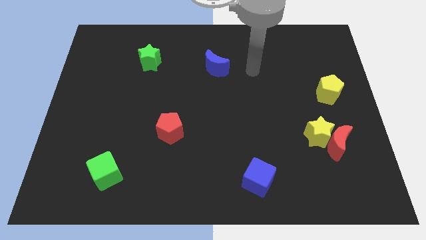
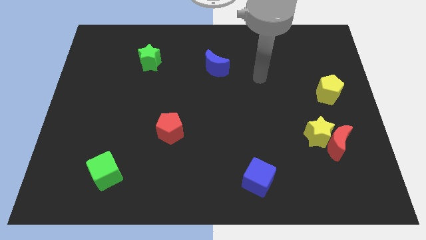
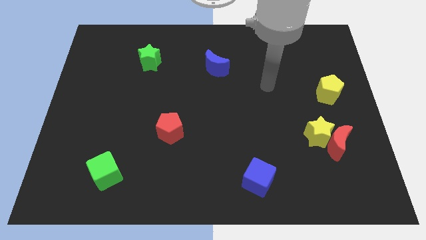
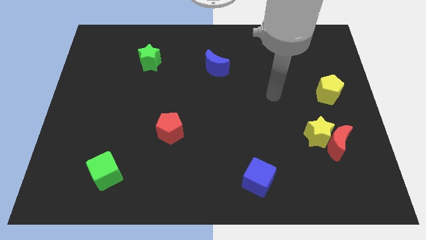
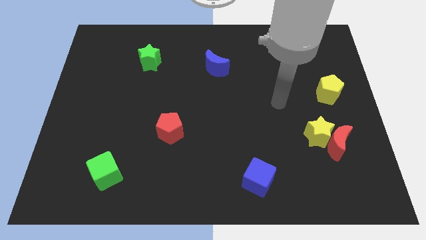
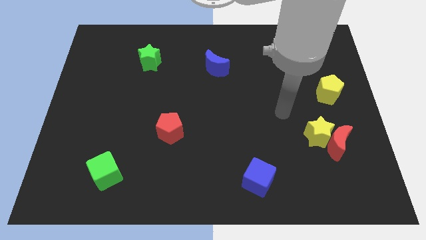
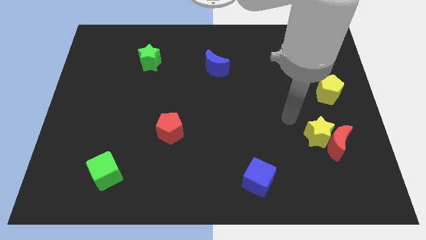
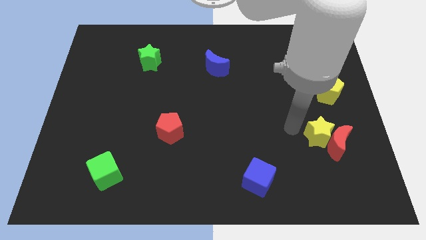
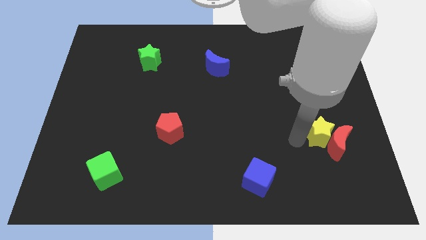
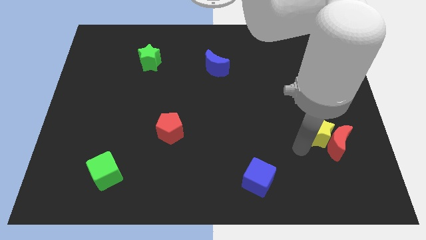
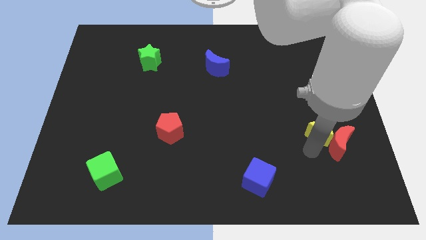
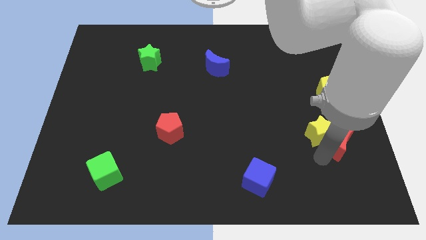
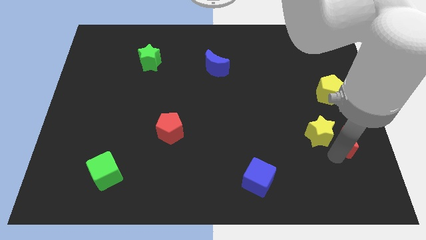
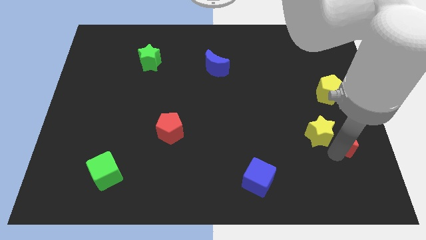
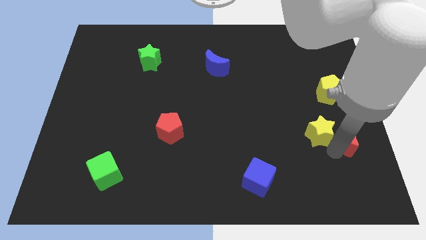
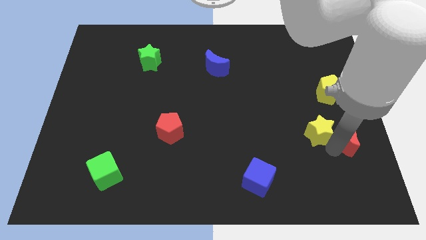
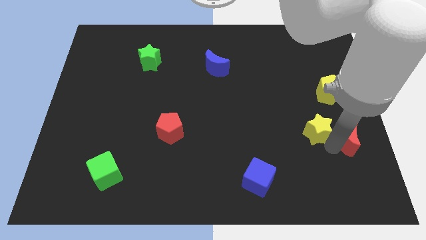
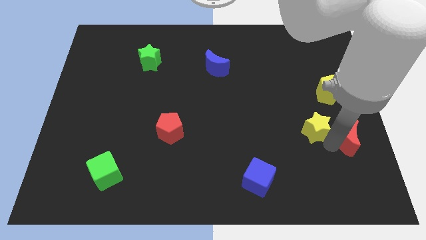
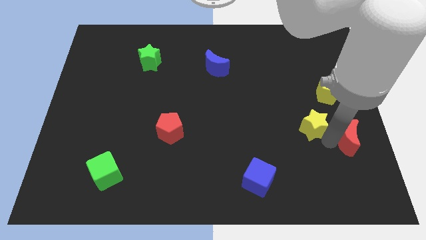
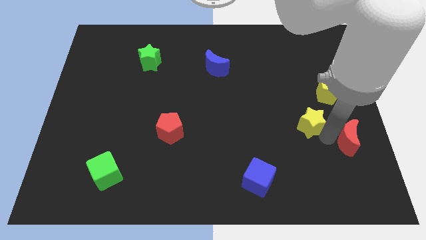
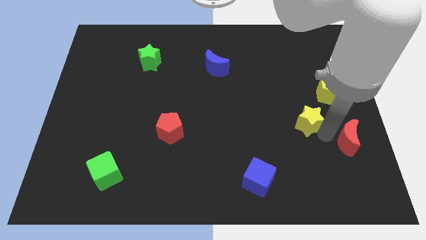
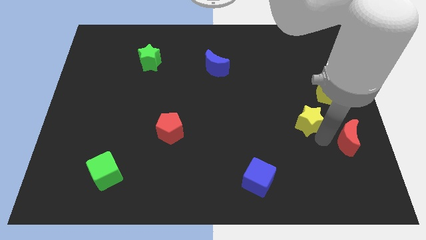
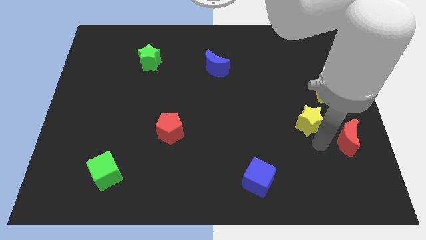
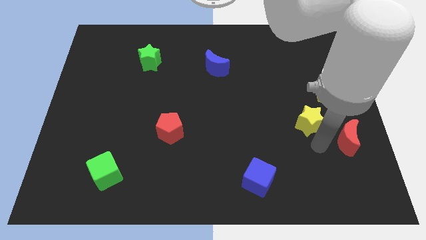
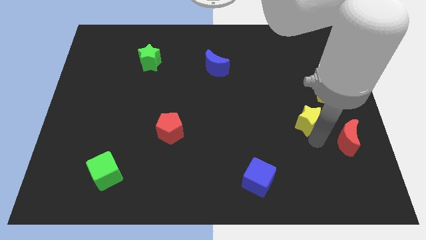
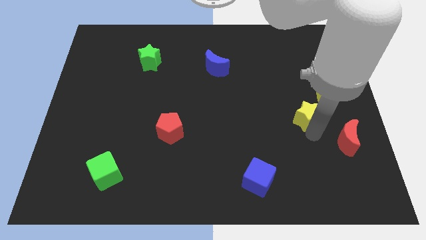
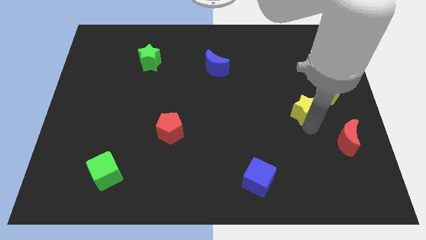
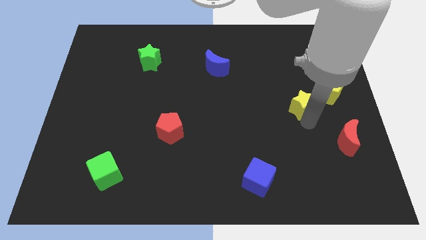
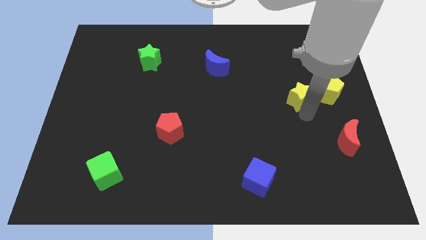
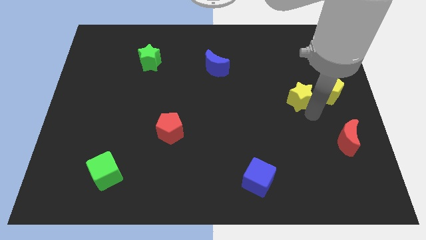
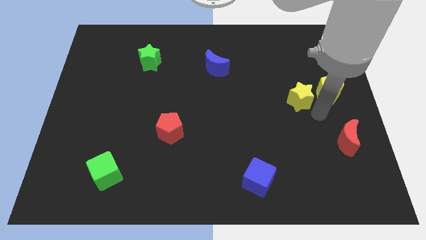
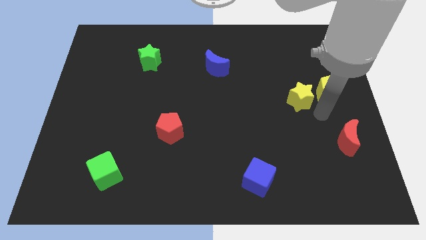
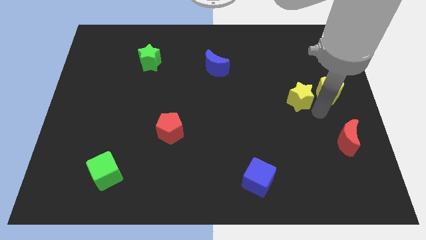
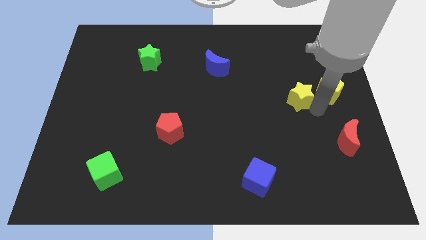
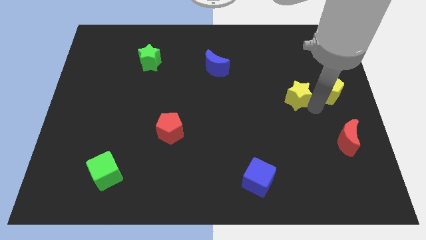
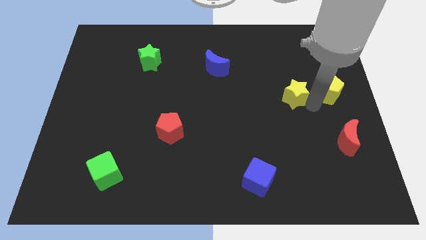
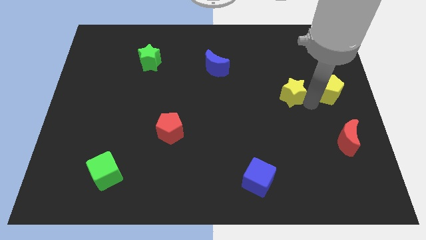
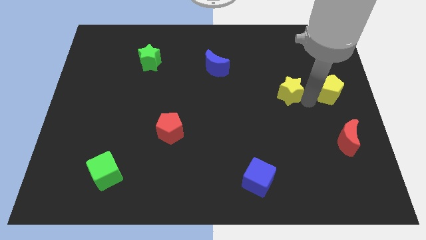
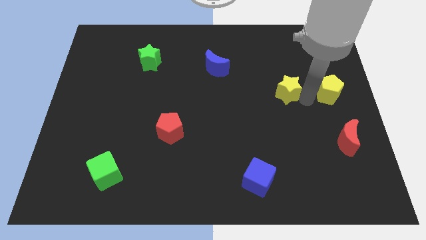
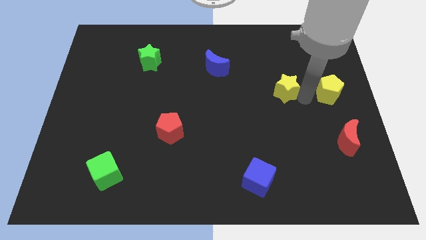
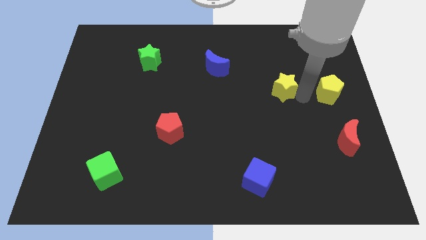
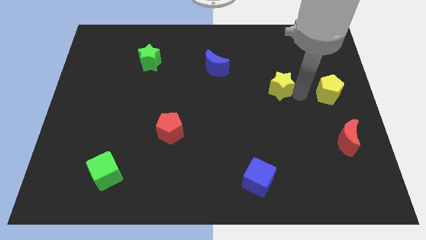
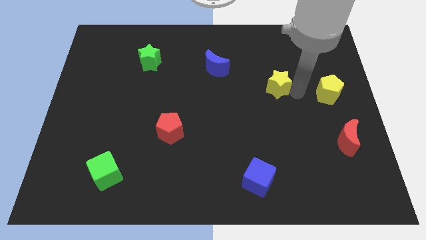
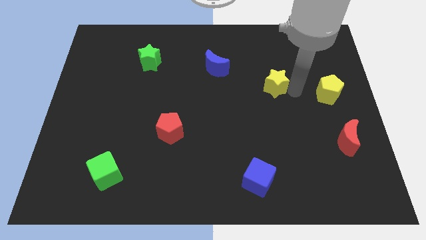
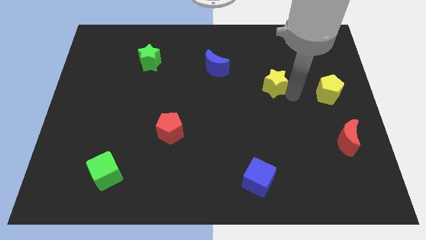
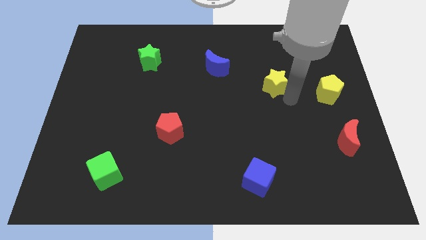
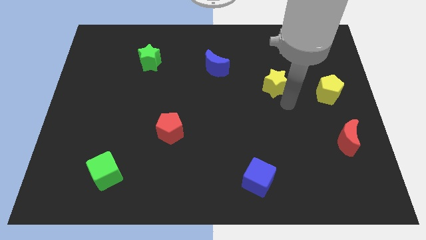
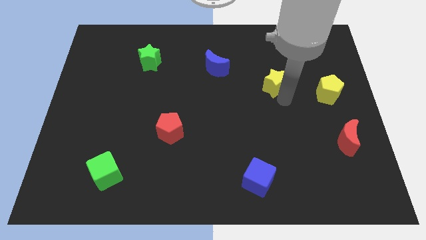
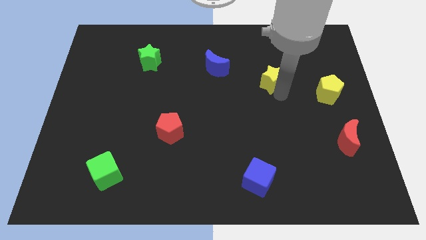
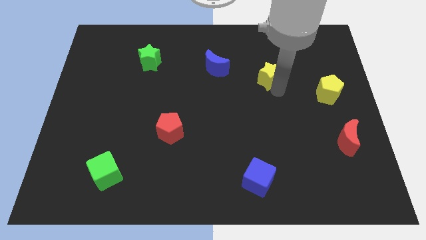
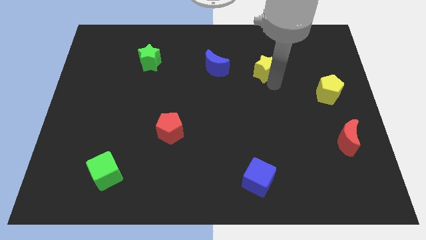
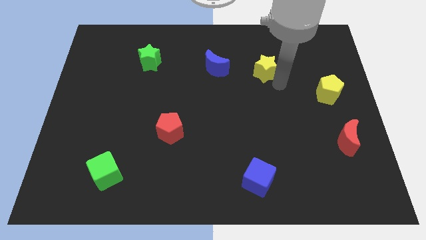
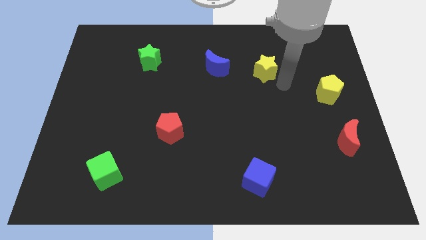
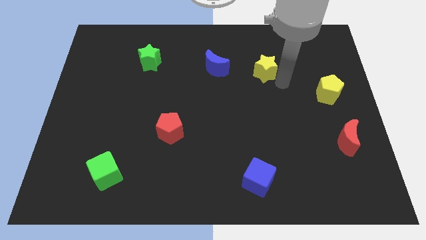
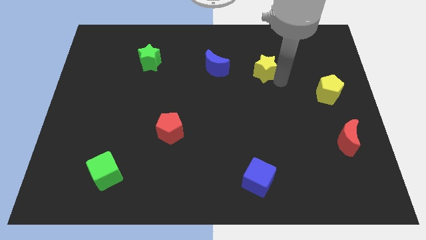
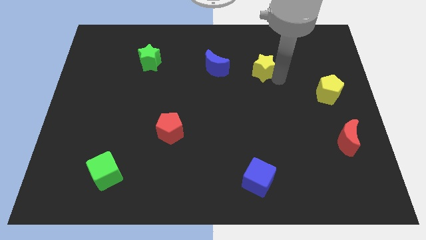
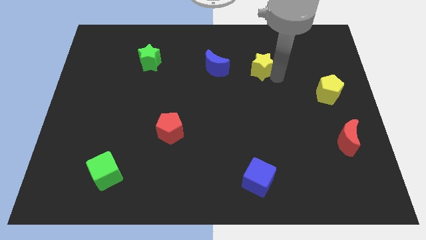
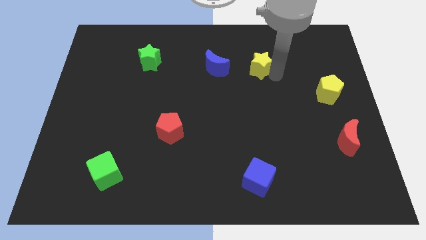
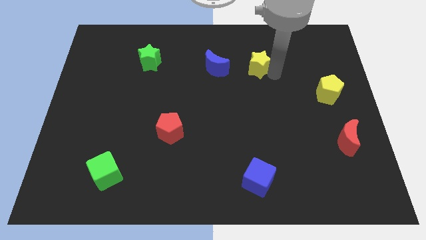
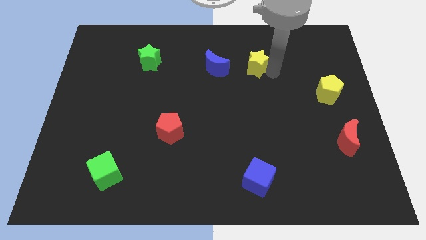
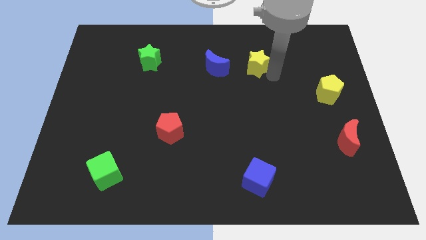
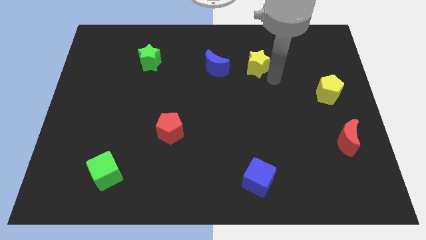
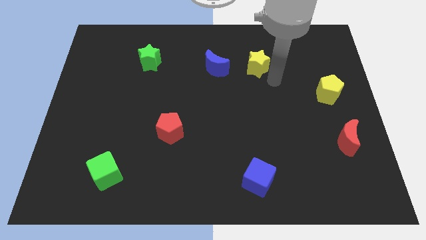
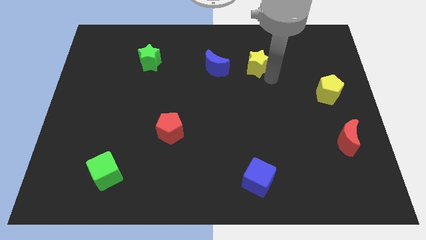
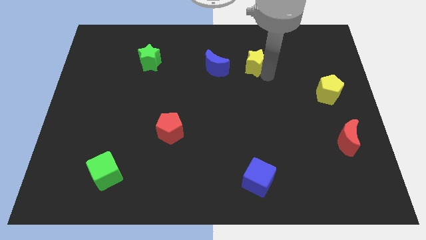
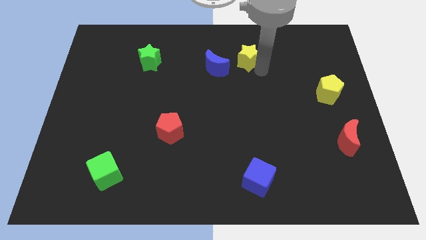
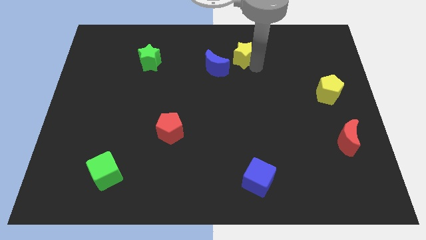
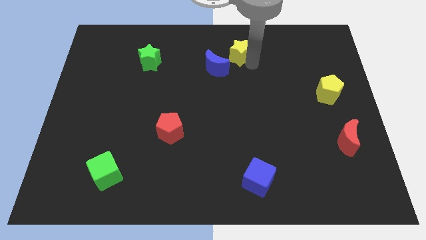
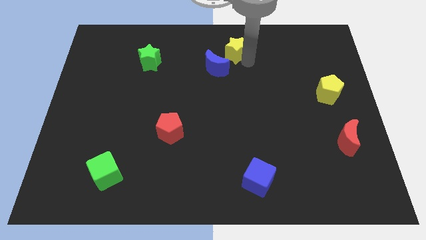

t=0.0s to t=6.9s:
push the yellow star to the towards your base

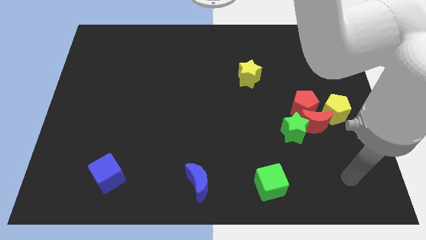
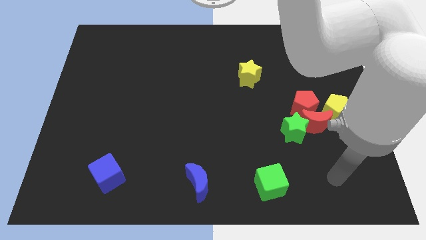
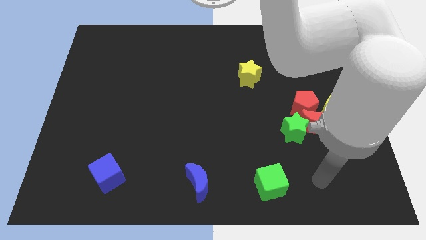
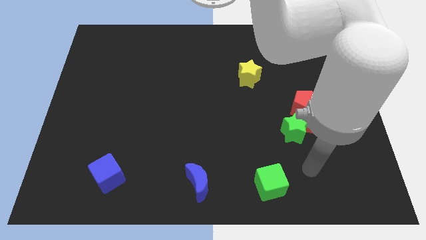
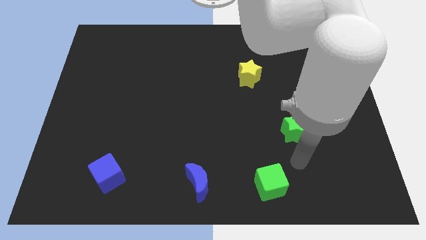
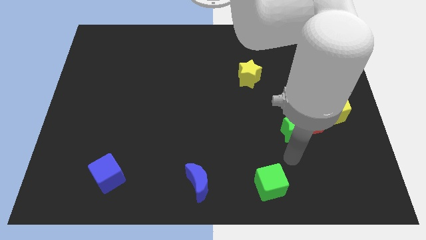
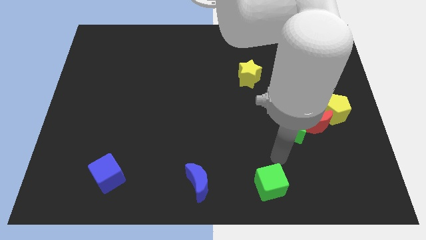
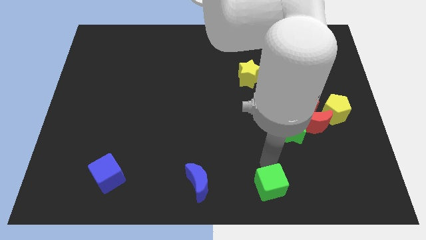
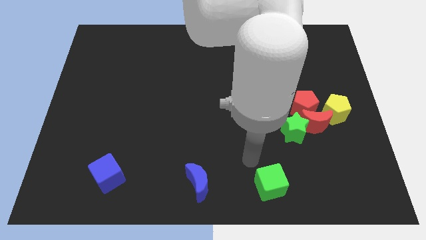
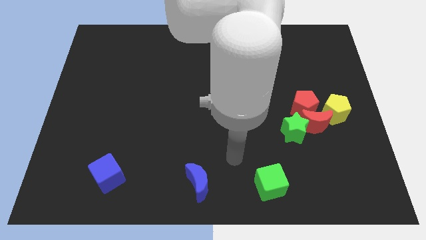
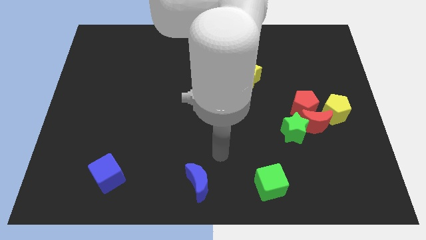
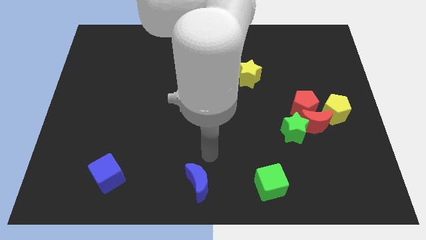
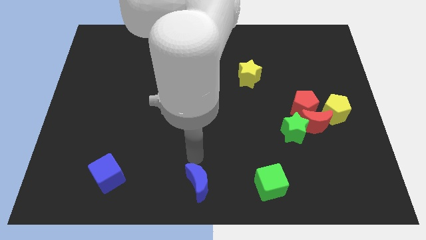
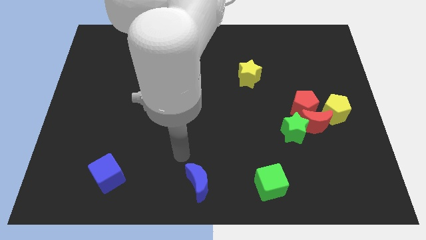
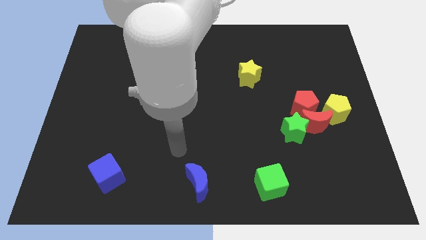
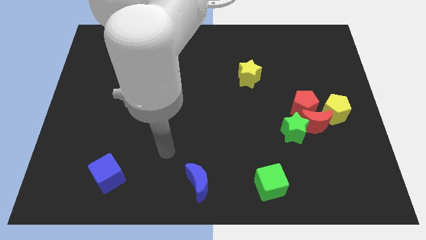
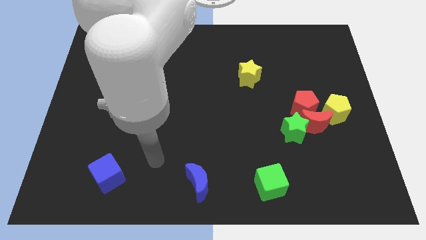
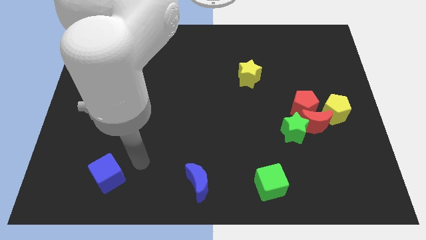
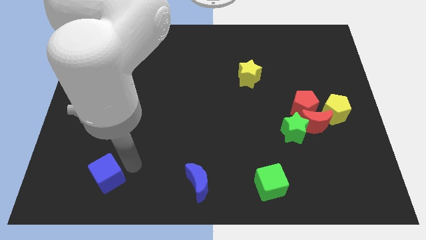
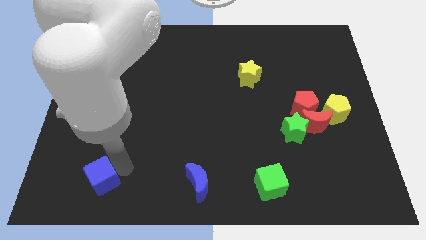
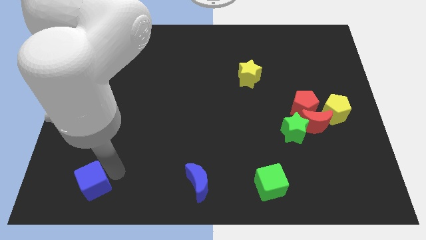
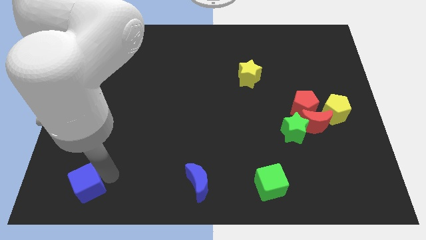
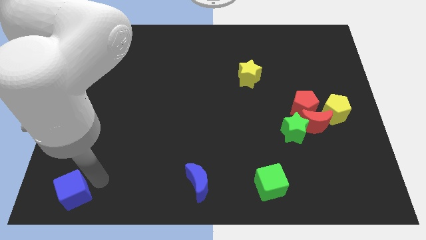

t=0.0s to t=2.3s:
put the blue cube to the bottom left corner
